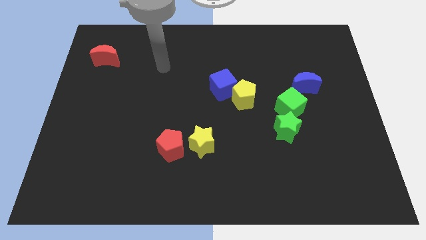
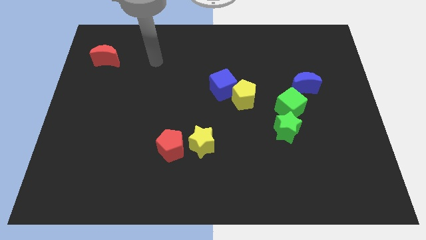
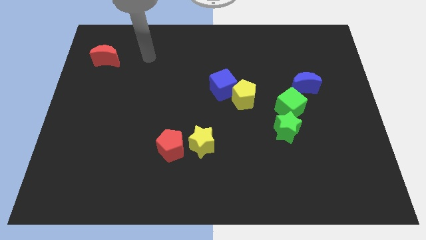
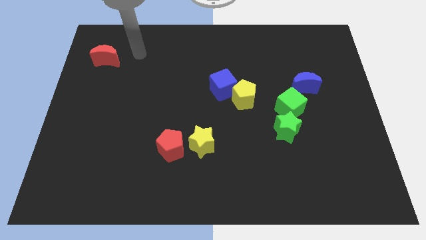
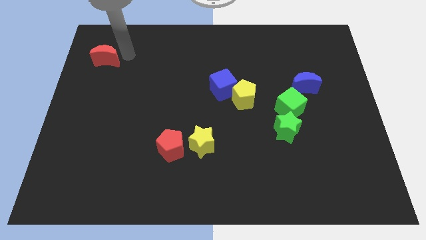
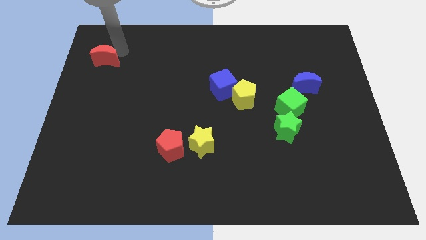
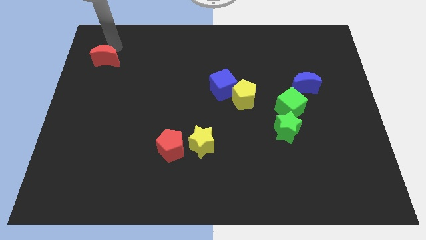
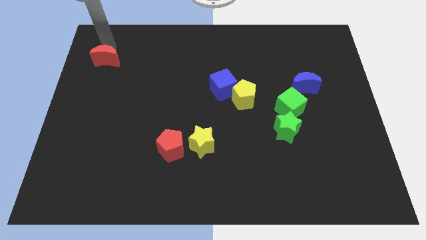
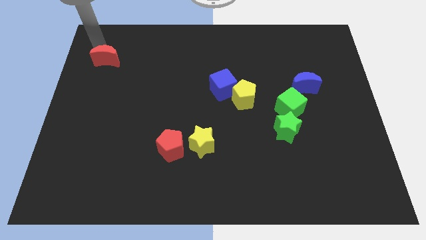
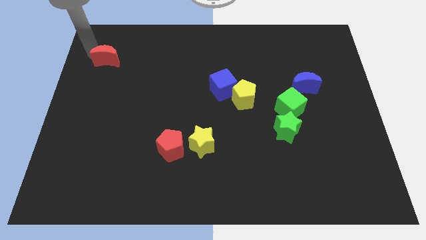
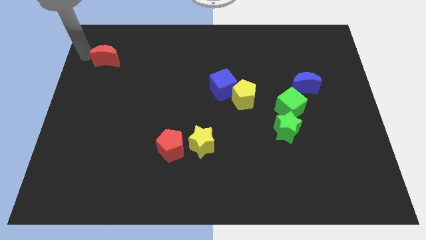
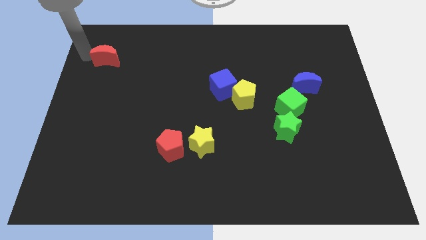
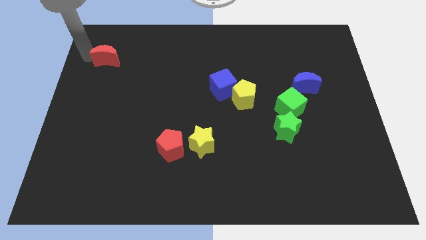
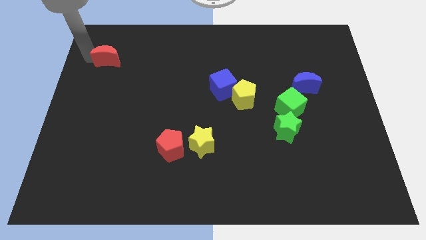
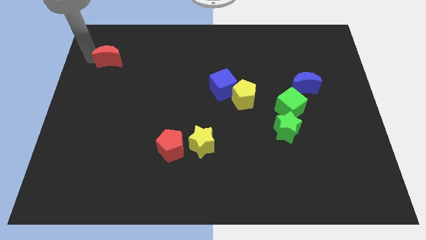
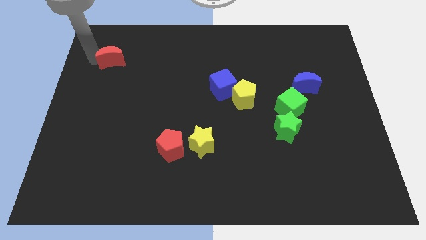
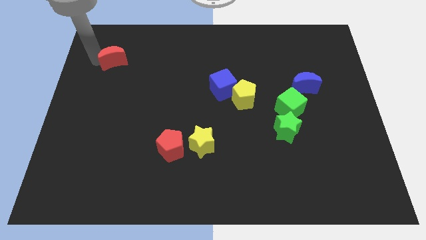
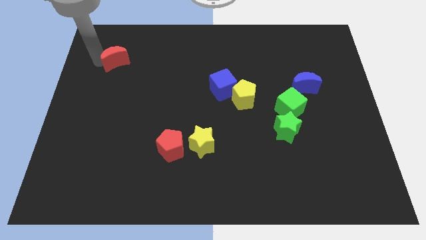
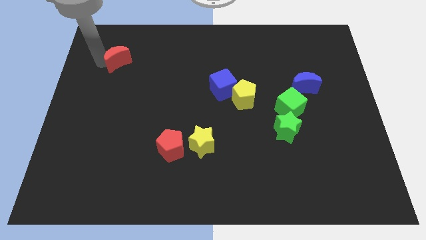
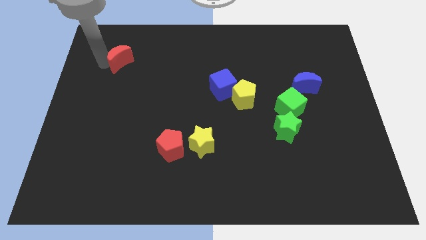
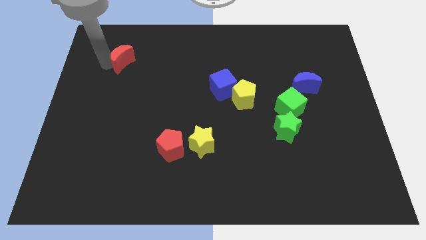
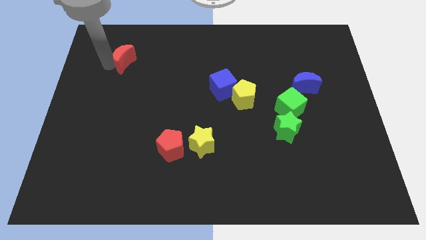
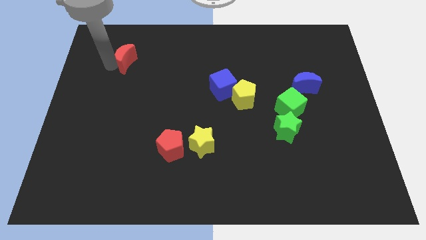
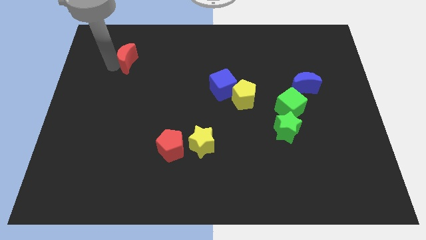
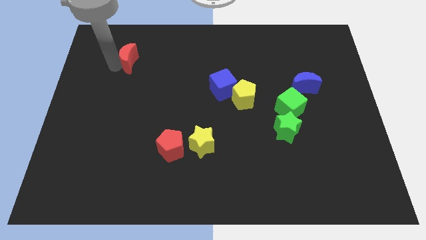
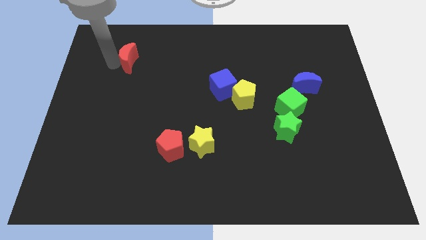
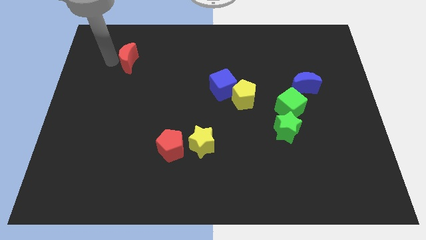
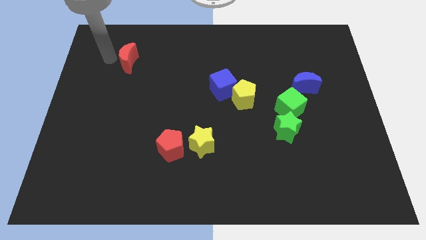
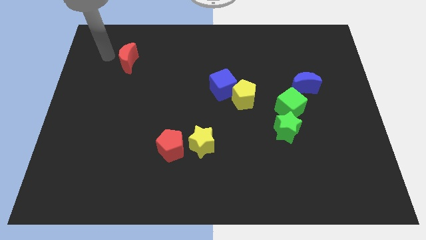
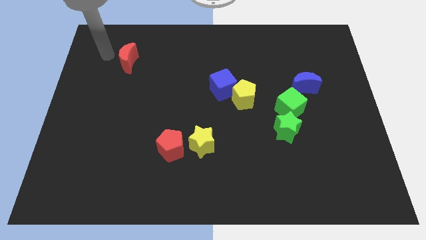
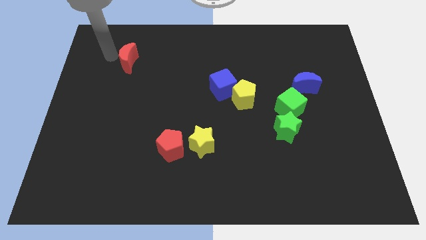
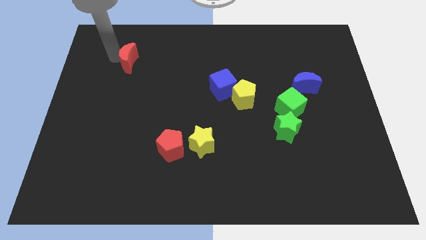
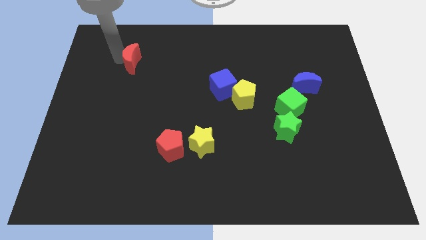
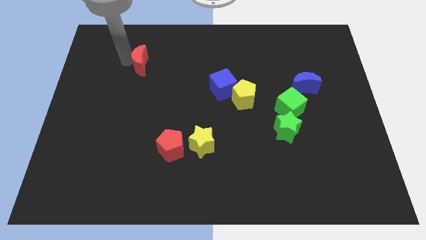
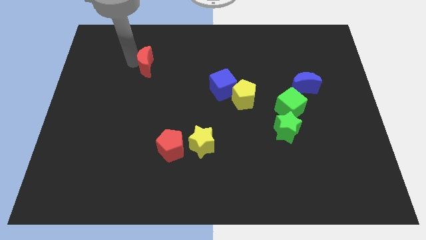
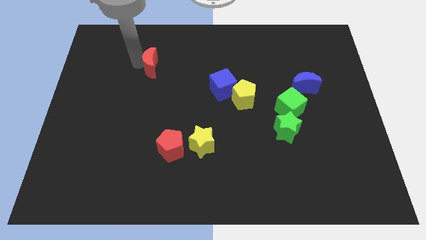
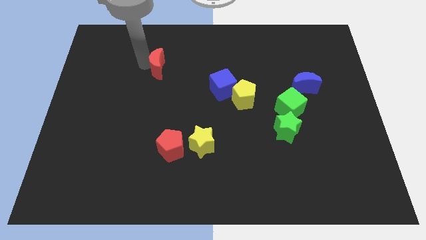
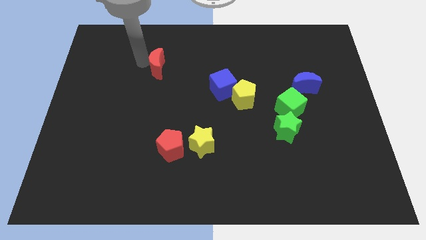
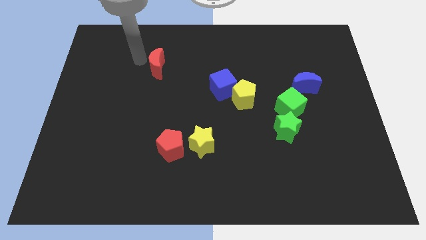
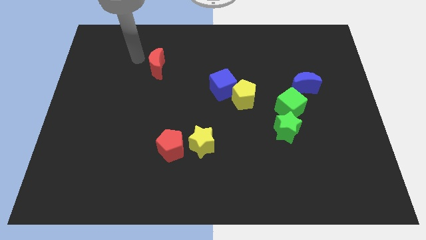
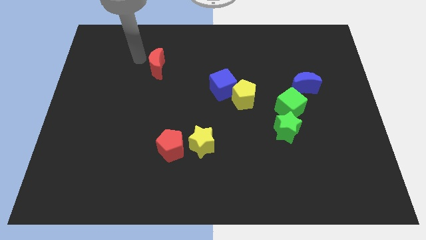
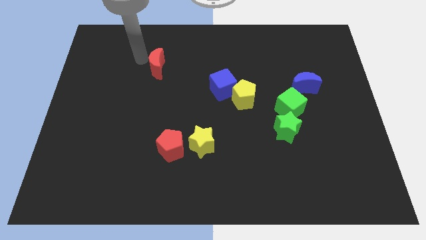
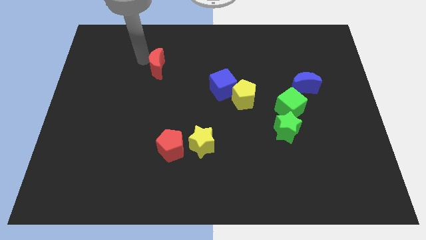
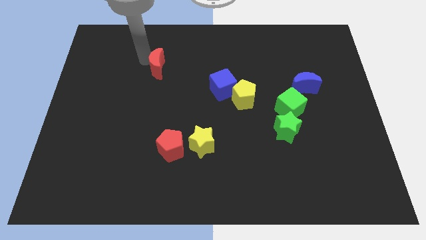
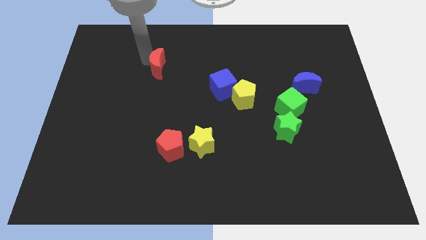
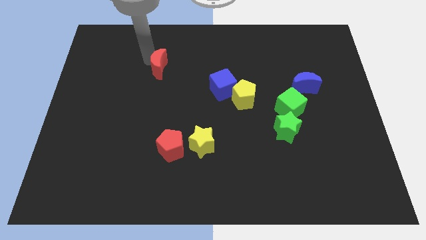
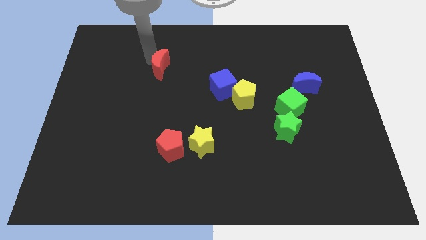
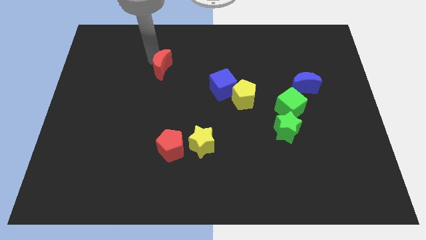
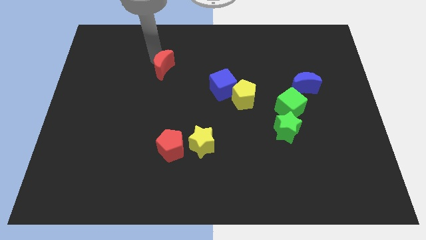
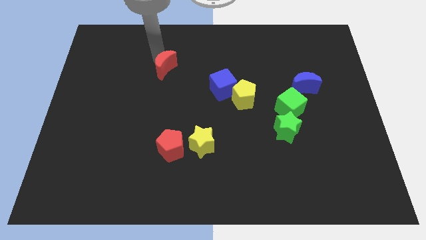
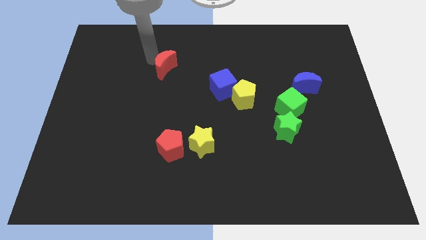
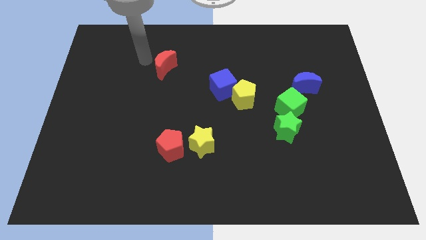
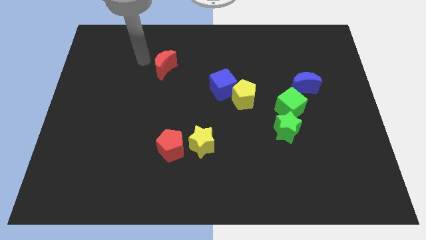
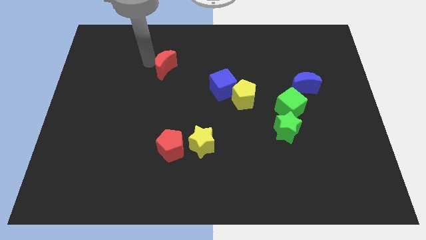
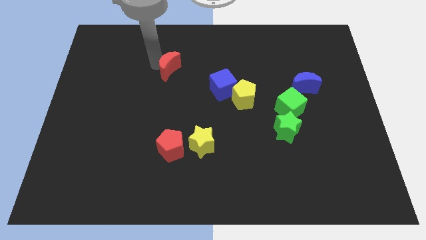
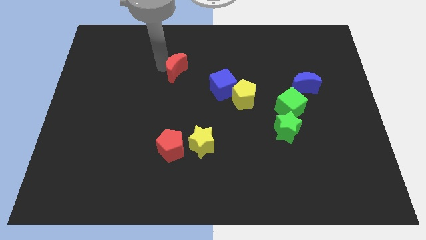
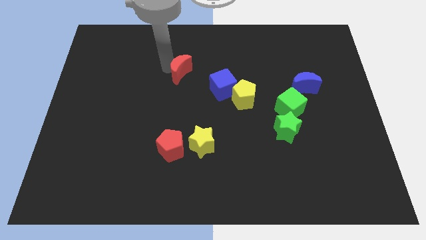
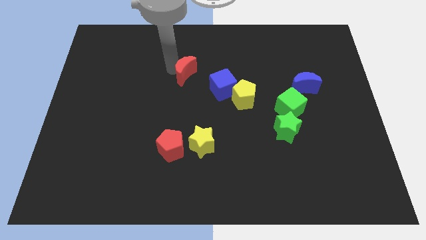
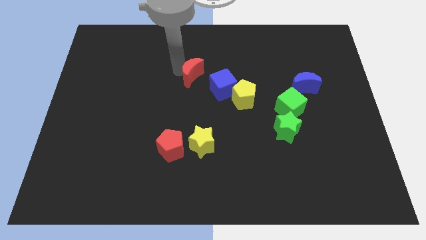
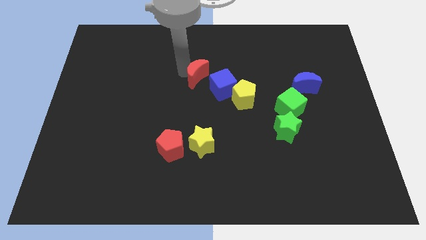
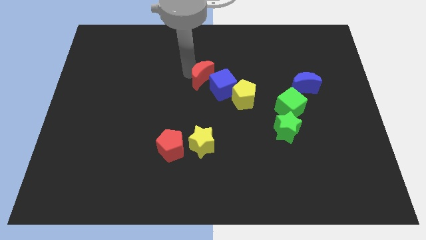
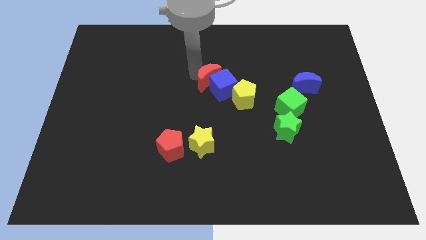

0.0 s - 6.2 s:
move the red moon towards the blue cube

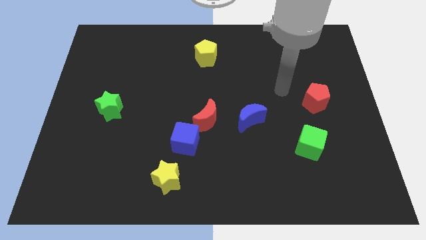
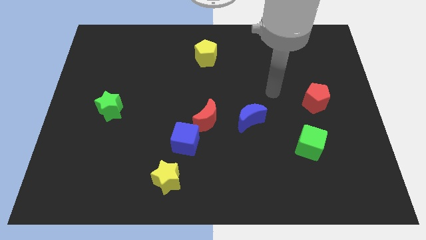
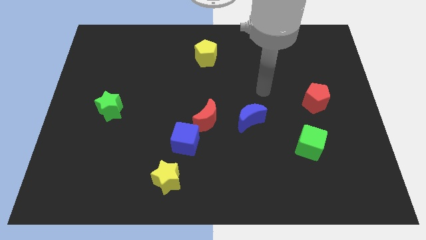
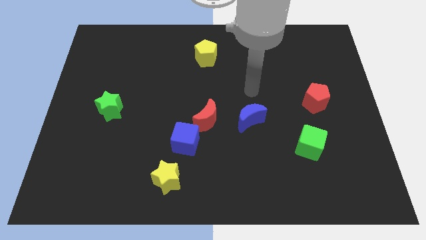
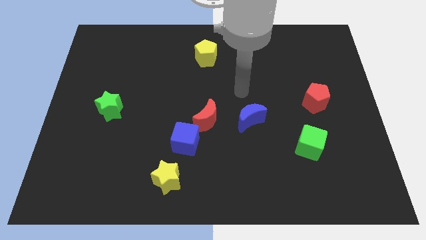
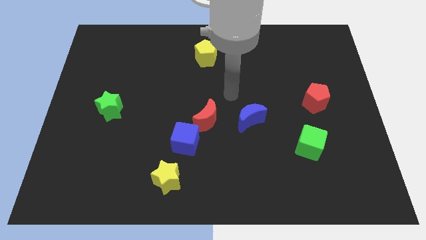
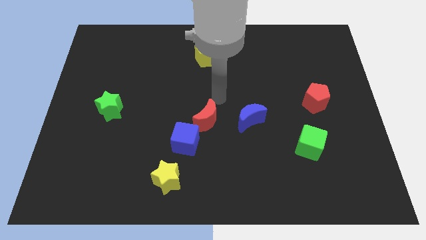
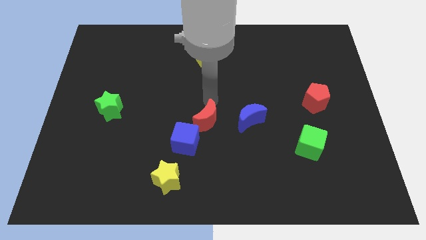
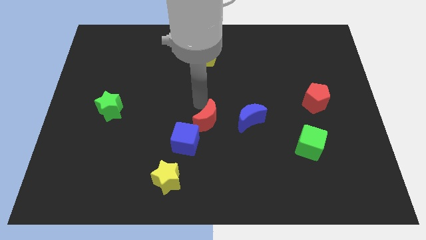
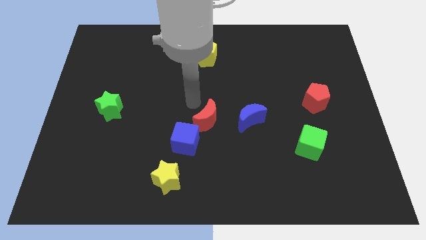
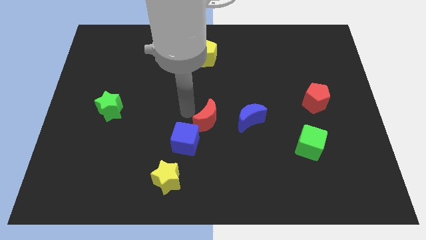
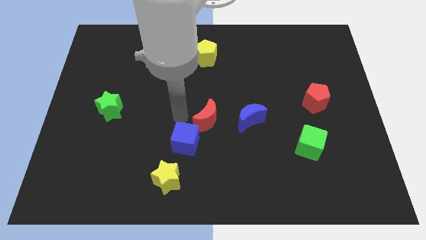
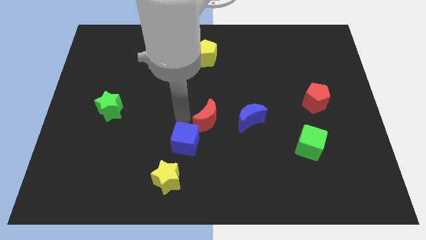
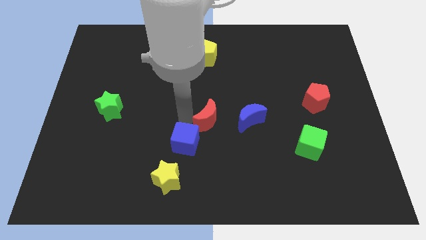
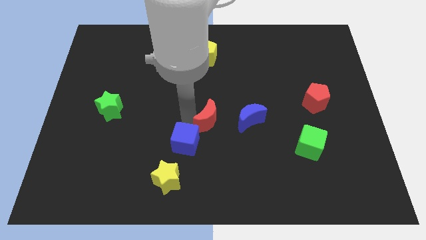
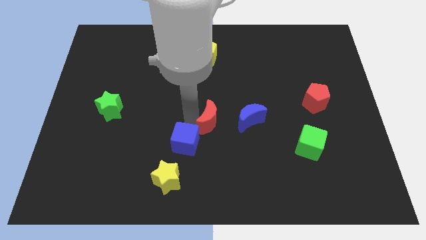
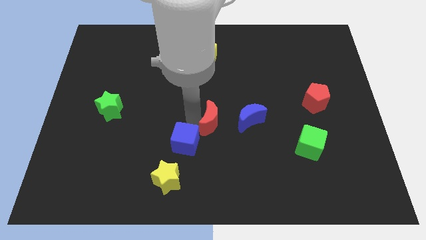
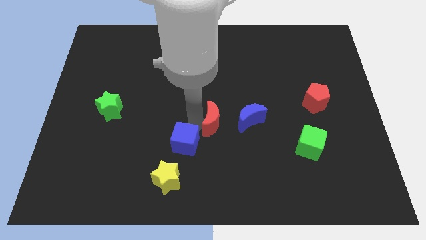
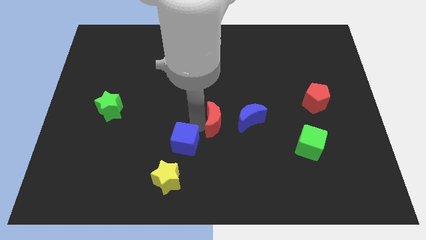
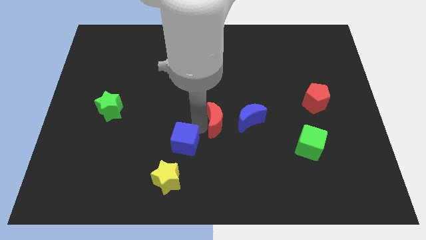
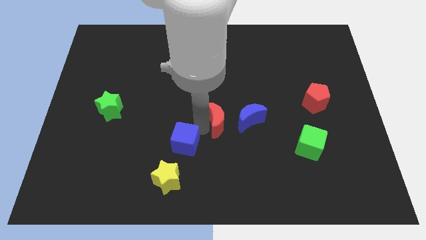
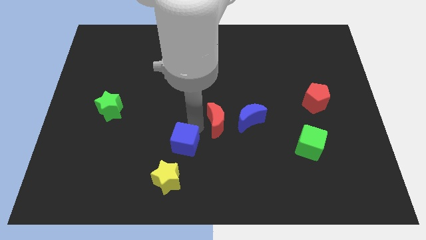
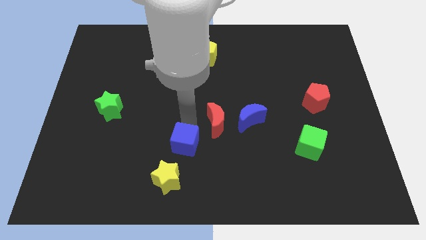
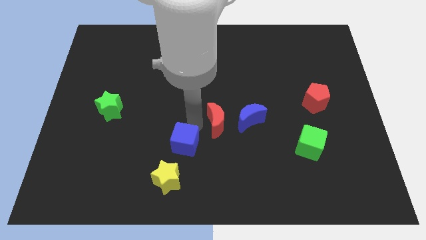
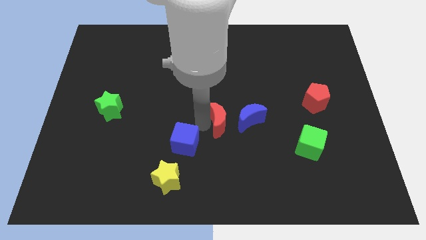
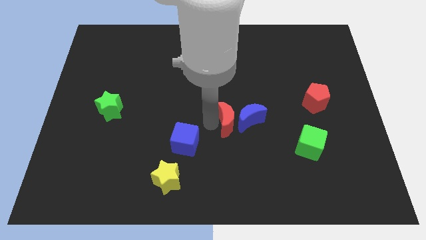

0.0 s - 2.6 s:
slide the red moon to the blue moon
